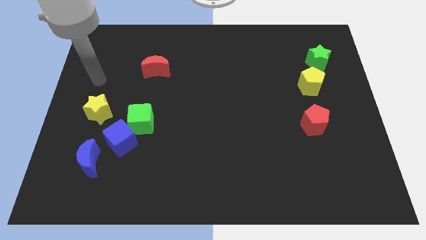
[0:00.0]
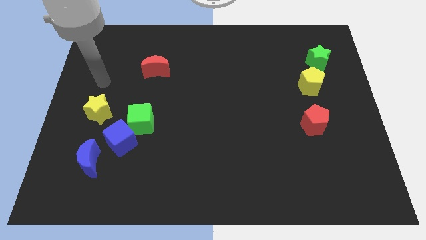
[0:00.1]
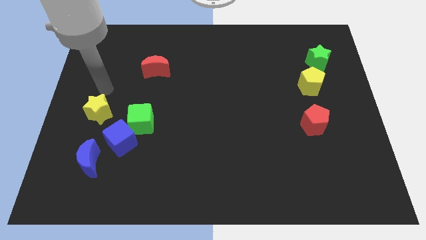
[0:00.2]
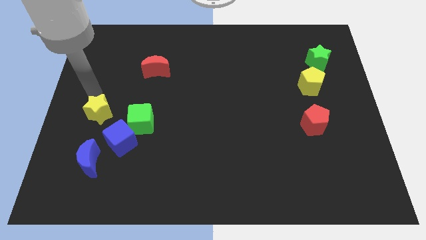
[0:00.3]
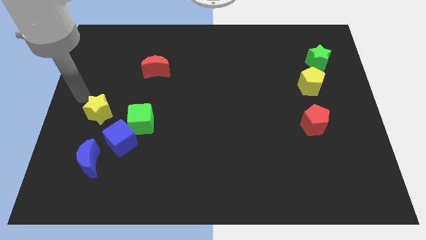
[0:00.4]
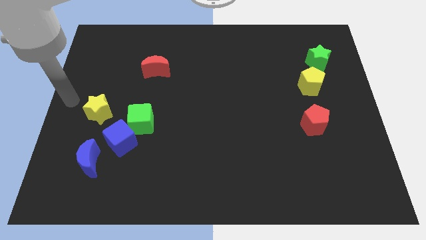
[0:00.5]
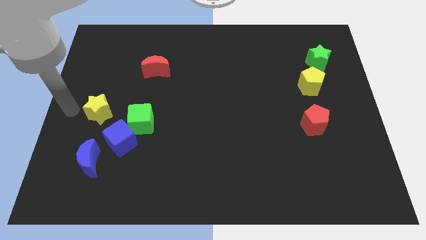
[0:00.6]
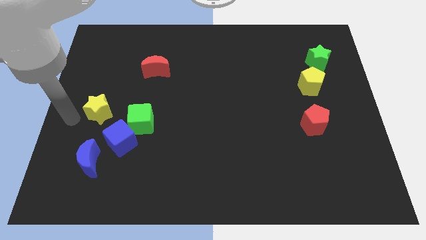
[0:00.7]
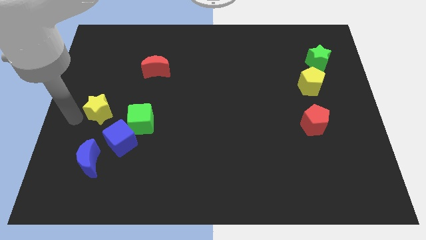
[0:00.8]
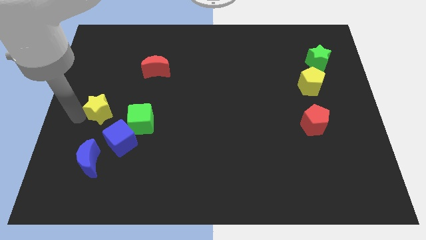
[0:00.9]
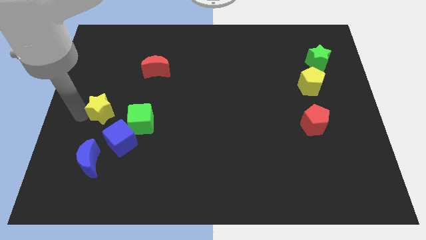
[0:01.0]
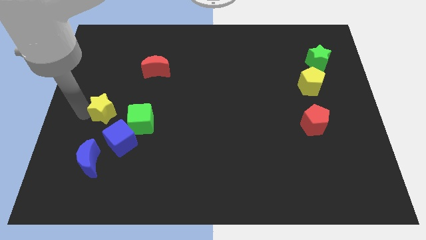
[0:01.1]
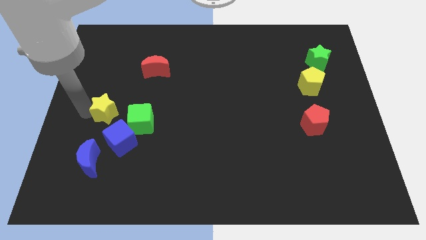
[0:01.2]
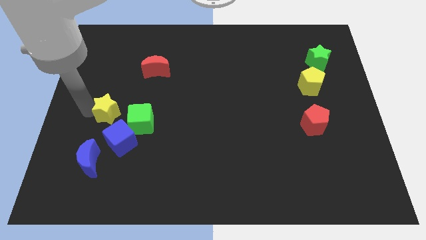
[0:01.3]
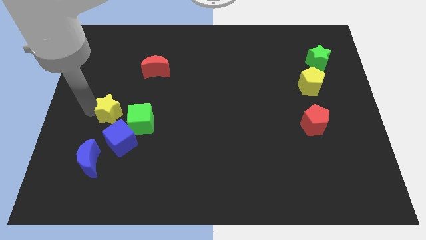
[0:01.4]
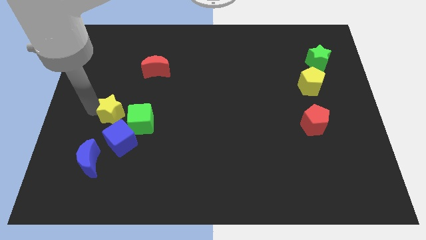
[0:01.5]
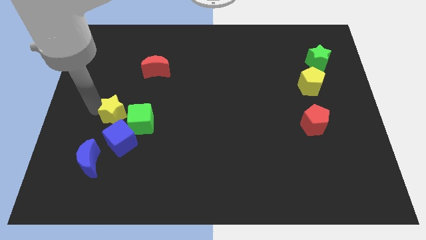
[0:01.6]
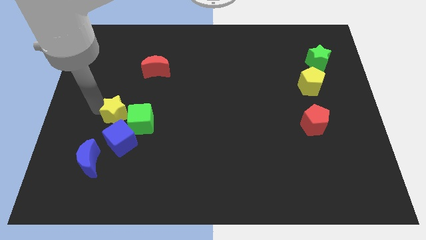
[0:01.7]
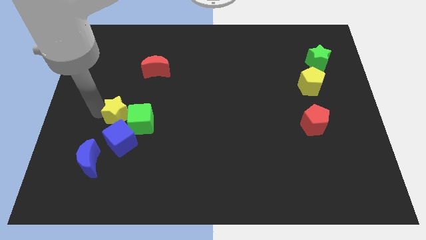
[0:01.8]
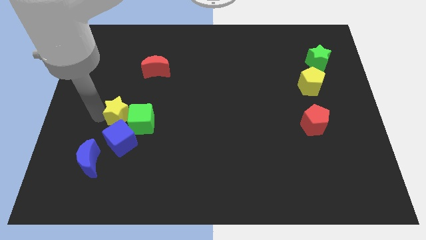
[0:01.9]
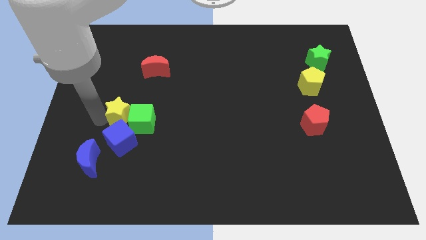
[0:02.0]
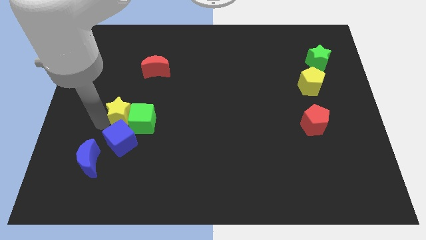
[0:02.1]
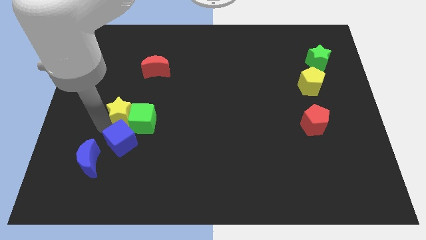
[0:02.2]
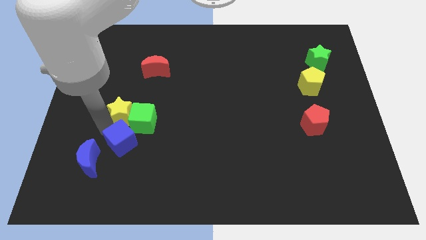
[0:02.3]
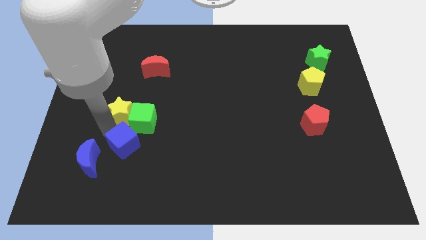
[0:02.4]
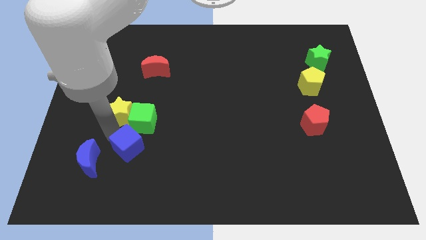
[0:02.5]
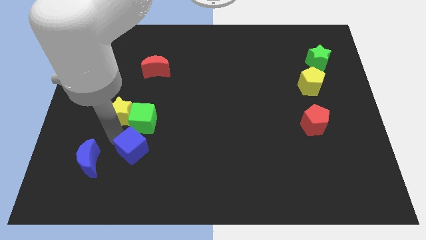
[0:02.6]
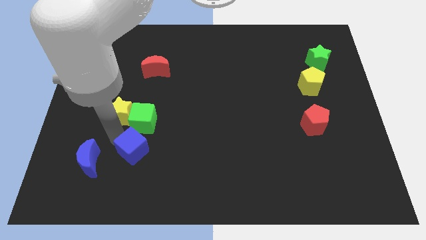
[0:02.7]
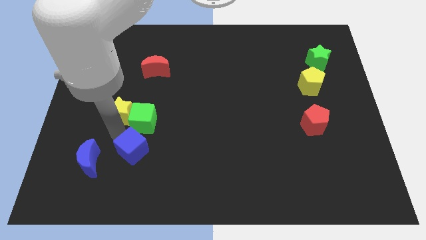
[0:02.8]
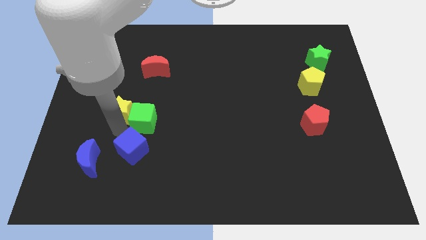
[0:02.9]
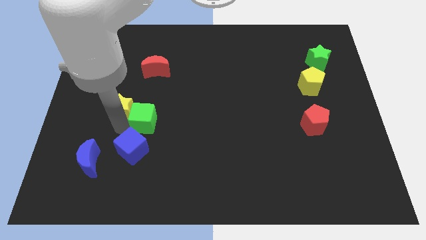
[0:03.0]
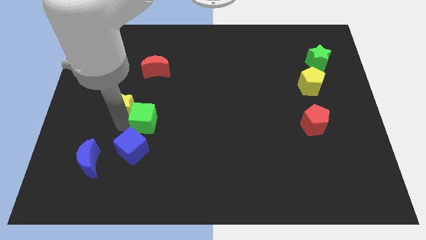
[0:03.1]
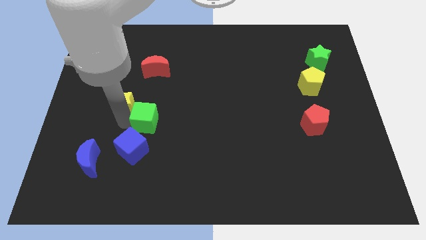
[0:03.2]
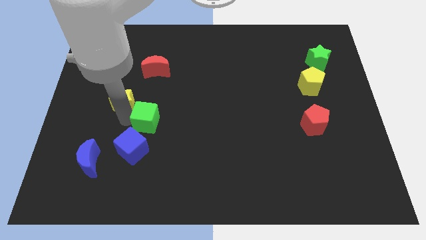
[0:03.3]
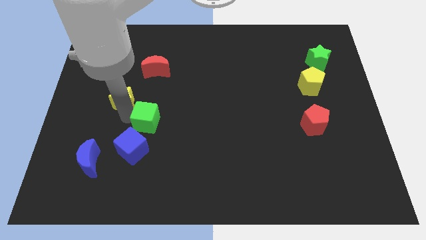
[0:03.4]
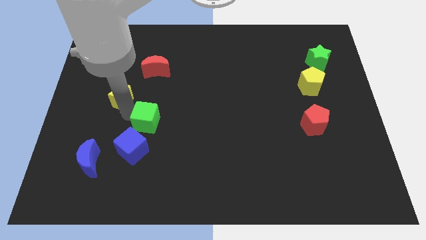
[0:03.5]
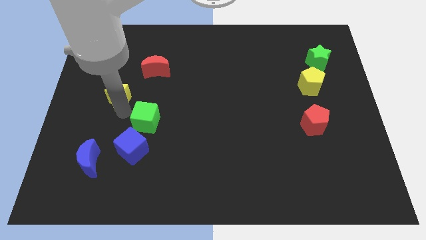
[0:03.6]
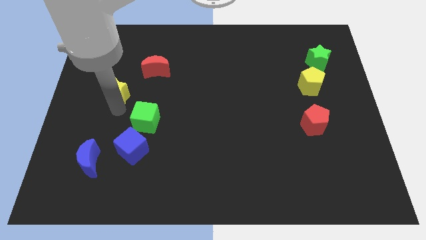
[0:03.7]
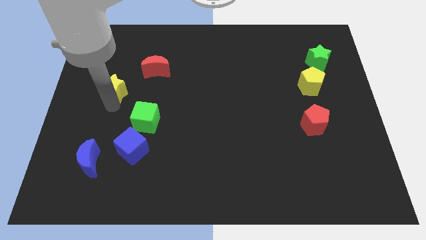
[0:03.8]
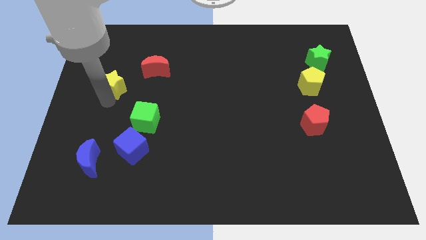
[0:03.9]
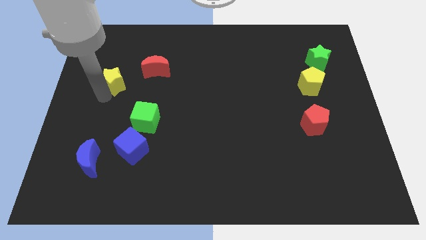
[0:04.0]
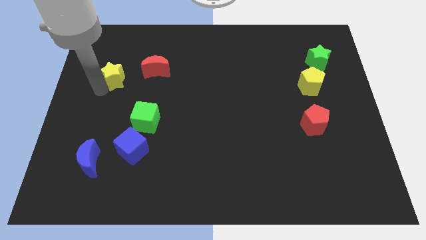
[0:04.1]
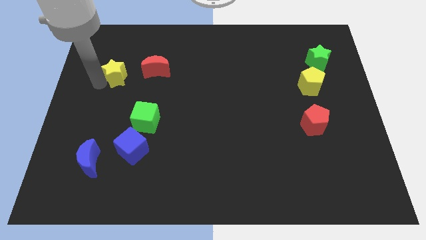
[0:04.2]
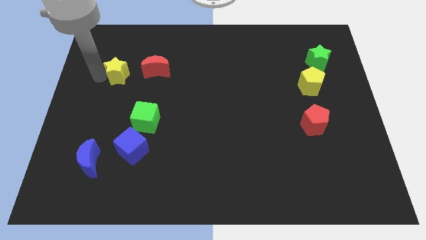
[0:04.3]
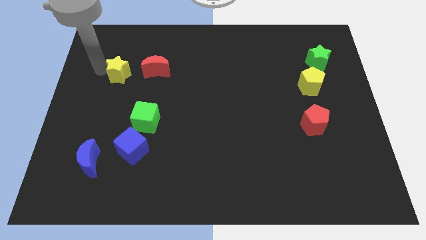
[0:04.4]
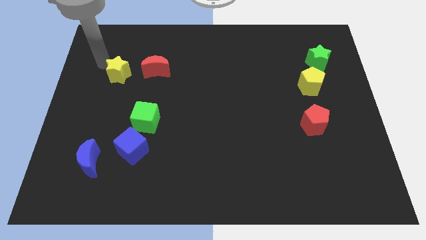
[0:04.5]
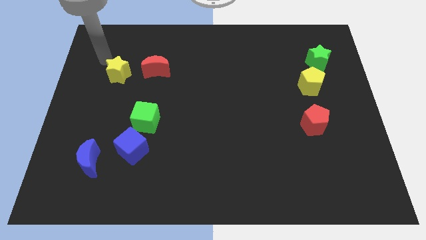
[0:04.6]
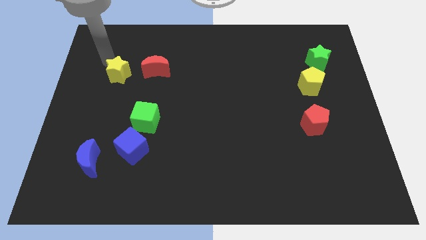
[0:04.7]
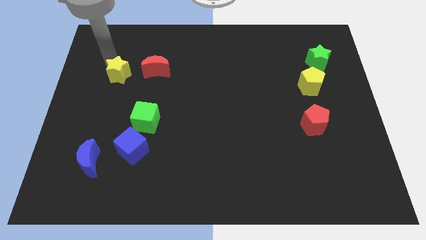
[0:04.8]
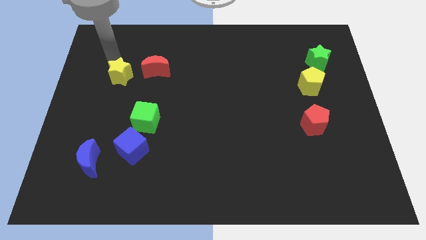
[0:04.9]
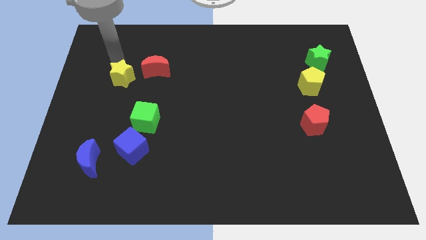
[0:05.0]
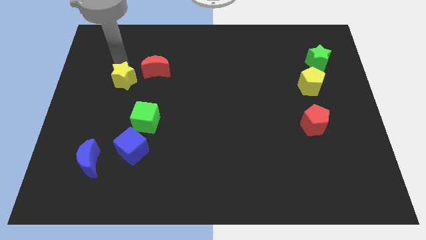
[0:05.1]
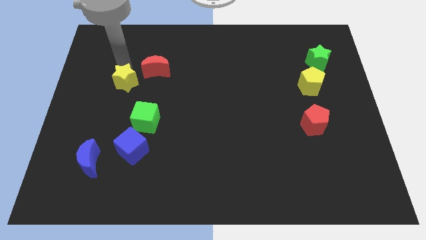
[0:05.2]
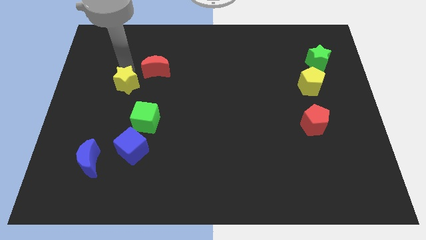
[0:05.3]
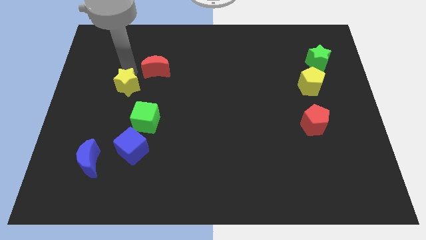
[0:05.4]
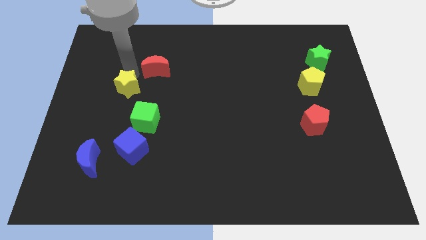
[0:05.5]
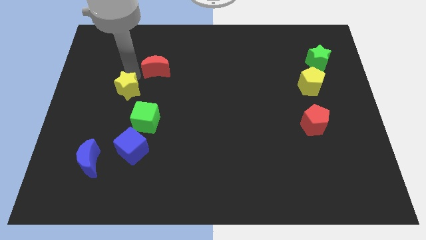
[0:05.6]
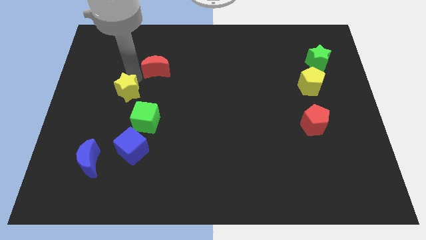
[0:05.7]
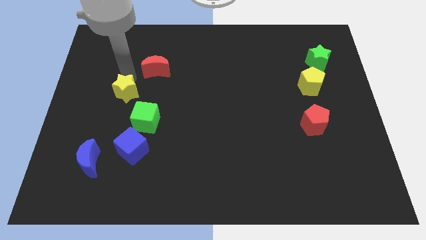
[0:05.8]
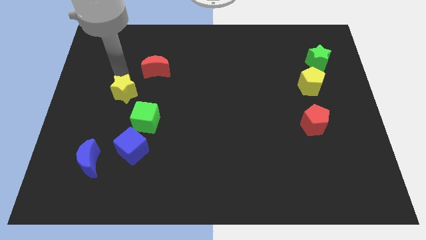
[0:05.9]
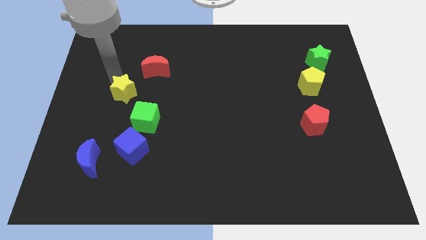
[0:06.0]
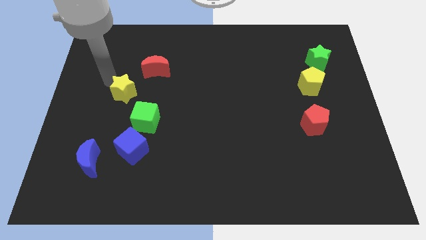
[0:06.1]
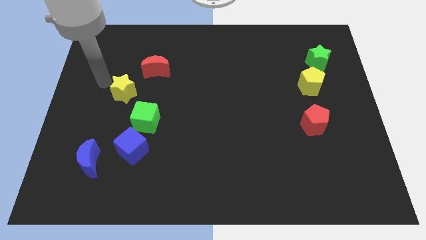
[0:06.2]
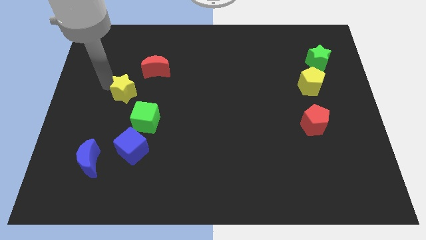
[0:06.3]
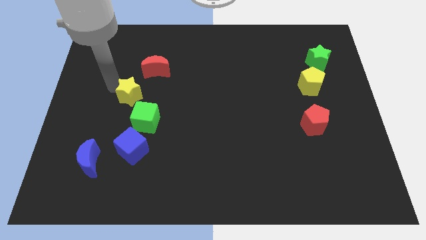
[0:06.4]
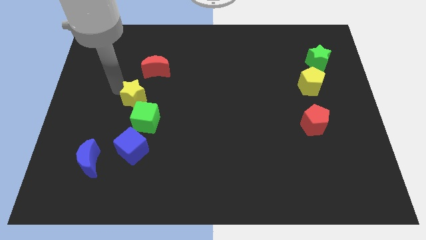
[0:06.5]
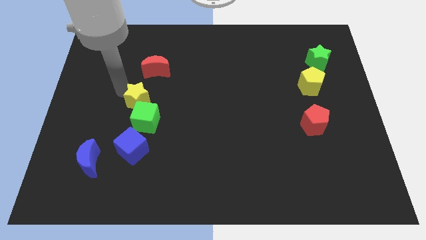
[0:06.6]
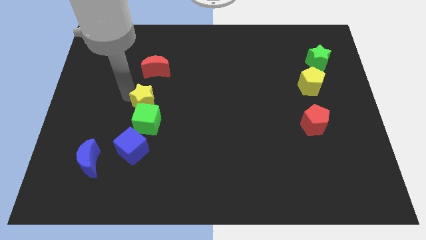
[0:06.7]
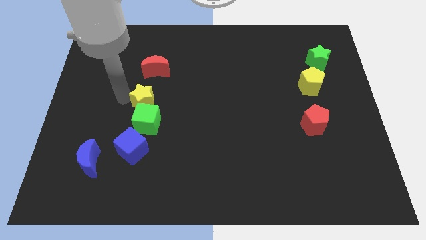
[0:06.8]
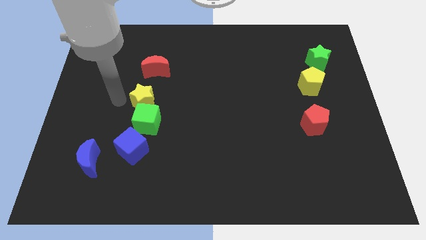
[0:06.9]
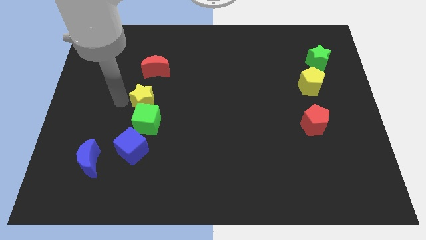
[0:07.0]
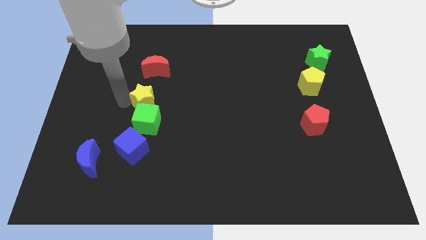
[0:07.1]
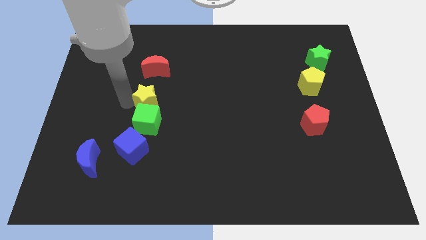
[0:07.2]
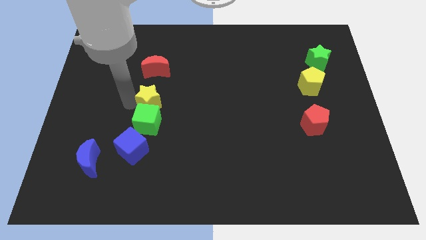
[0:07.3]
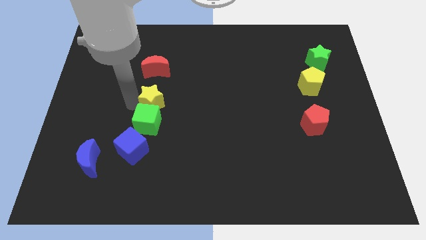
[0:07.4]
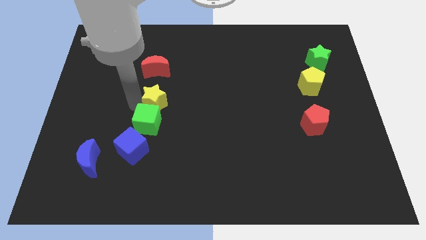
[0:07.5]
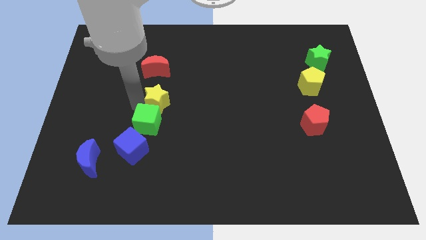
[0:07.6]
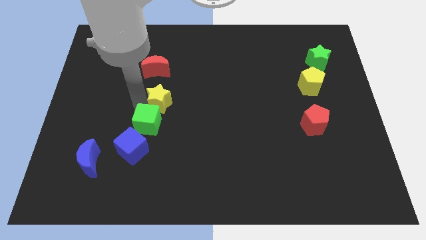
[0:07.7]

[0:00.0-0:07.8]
move the yellow star to the middle of the board
